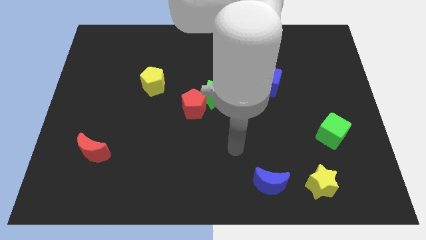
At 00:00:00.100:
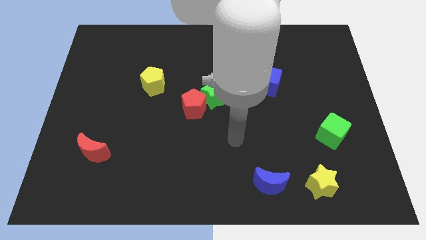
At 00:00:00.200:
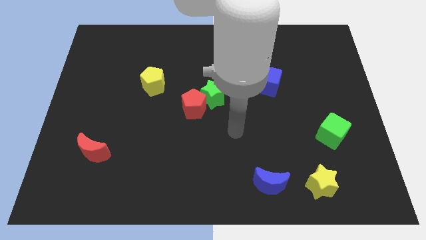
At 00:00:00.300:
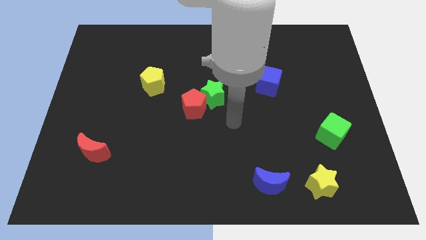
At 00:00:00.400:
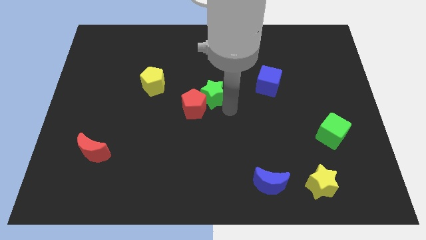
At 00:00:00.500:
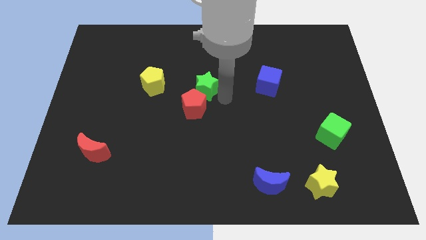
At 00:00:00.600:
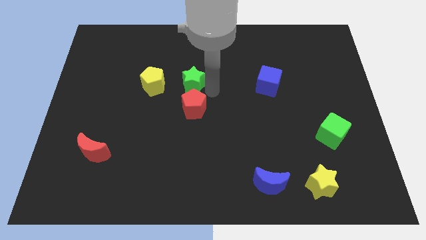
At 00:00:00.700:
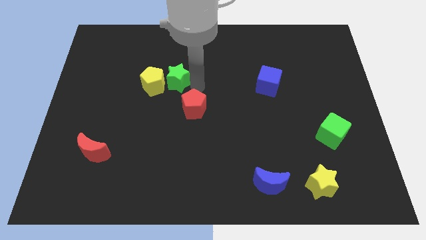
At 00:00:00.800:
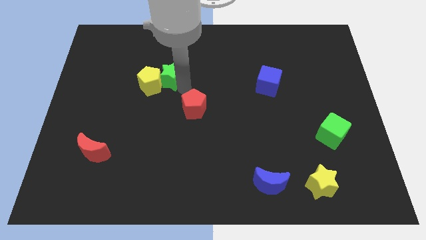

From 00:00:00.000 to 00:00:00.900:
separate the red pentagon from the green star

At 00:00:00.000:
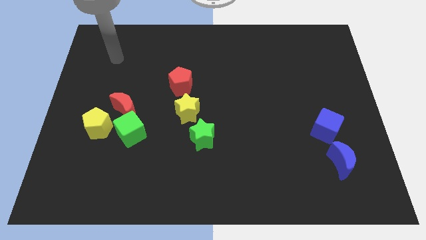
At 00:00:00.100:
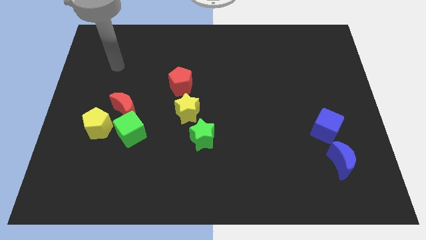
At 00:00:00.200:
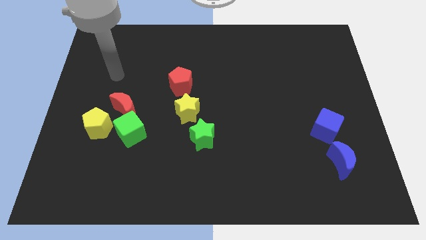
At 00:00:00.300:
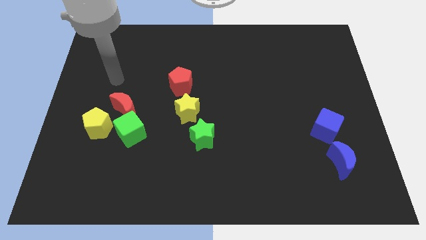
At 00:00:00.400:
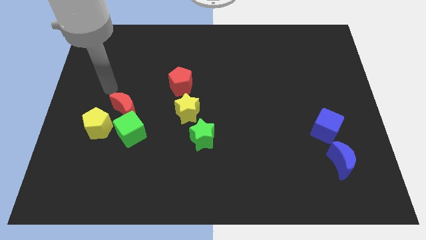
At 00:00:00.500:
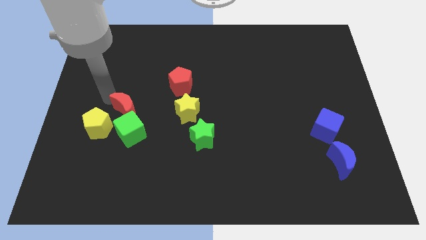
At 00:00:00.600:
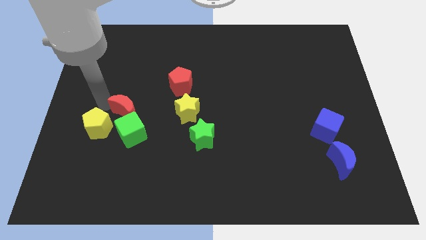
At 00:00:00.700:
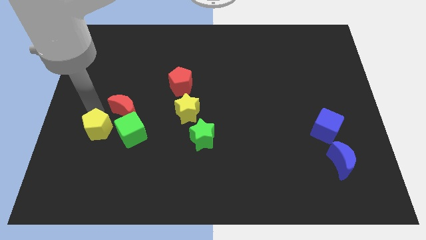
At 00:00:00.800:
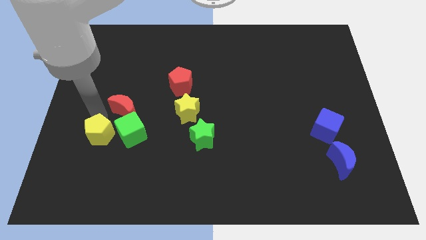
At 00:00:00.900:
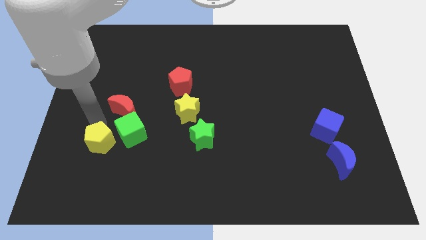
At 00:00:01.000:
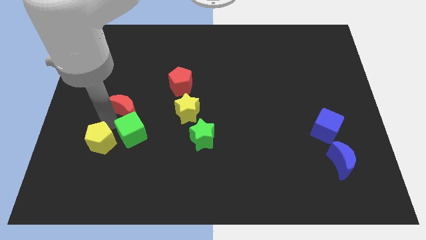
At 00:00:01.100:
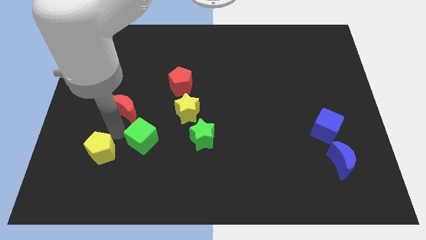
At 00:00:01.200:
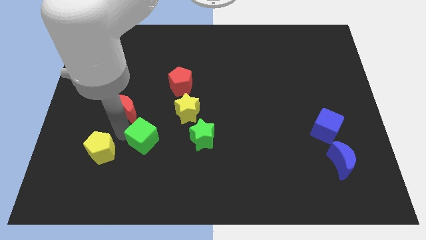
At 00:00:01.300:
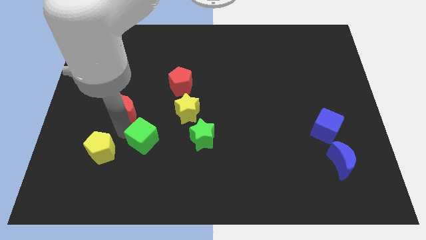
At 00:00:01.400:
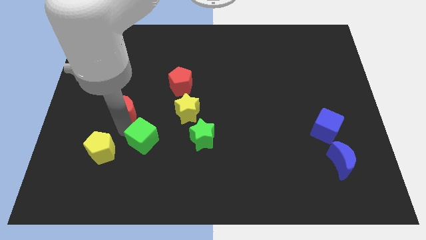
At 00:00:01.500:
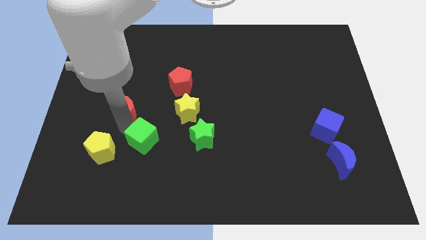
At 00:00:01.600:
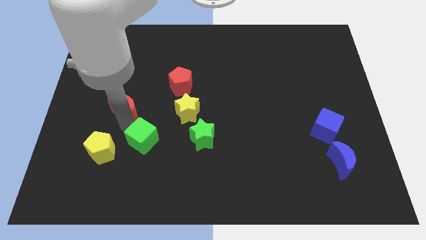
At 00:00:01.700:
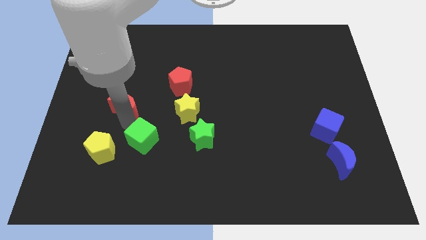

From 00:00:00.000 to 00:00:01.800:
separate the red moon from the green cube and yellow pentagon

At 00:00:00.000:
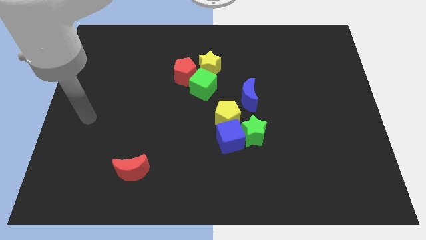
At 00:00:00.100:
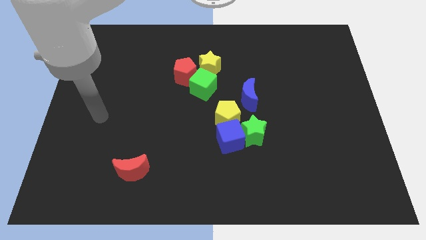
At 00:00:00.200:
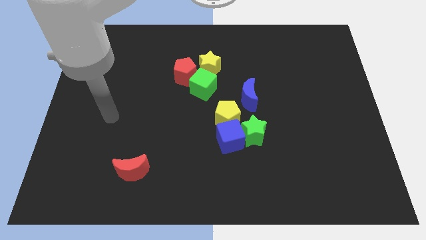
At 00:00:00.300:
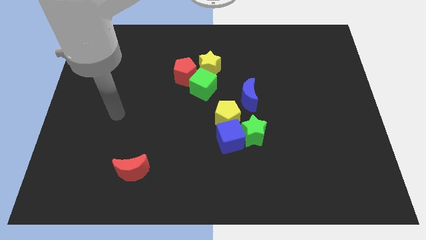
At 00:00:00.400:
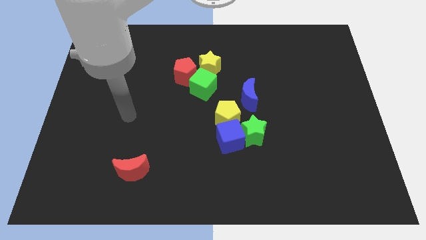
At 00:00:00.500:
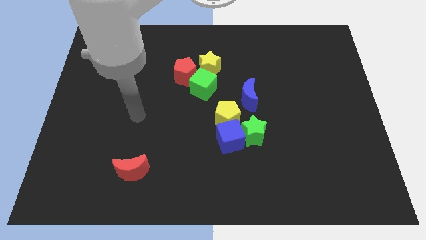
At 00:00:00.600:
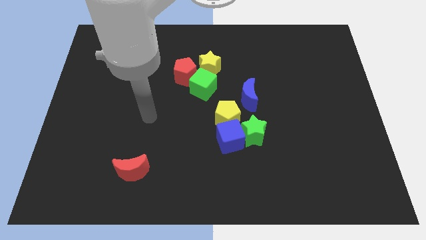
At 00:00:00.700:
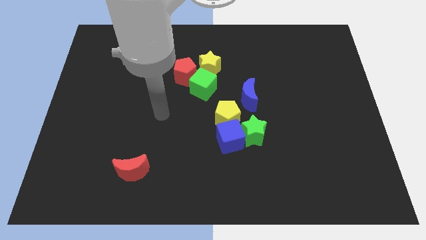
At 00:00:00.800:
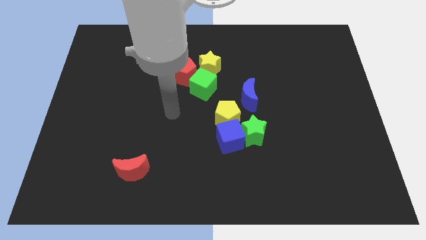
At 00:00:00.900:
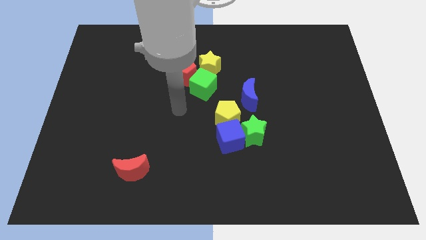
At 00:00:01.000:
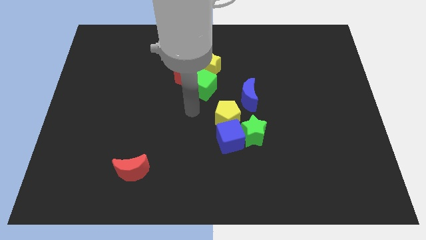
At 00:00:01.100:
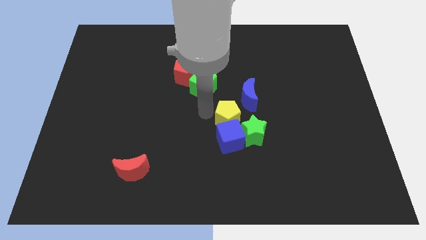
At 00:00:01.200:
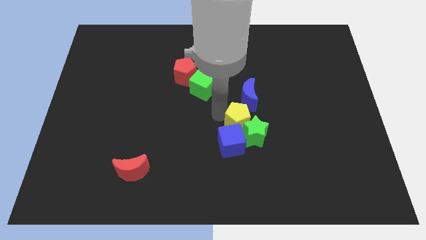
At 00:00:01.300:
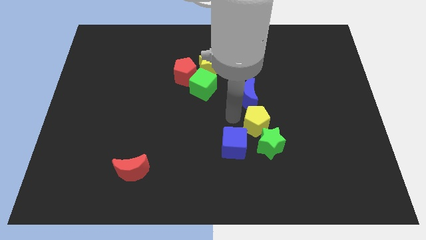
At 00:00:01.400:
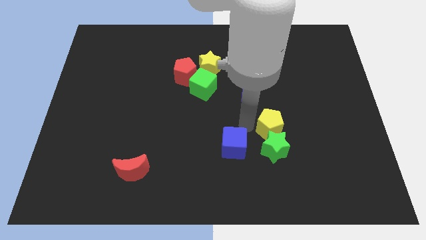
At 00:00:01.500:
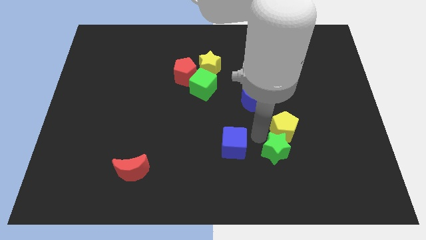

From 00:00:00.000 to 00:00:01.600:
pull the blue cube apart from the green star and yellow pentagon

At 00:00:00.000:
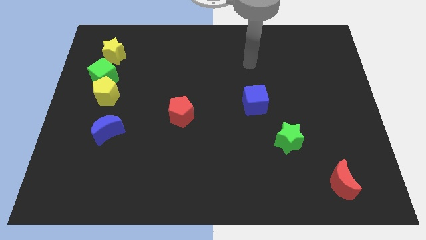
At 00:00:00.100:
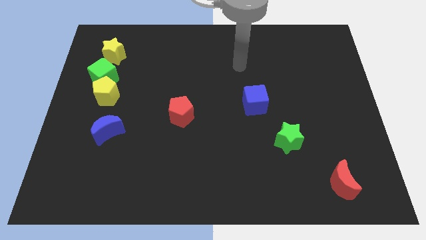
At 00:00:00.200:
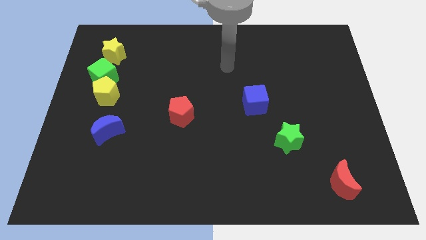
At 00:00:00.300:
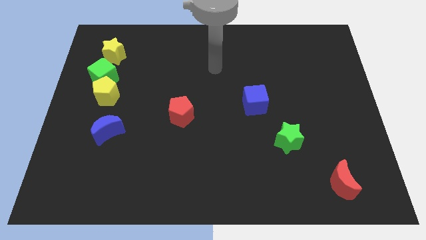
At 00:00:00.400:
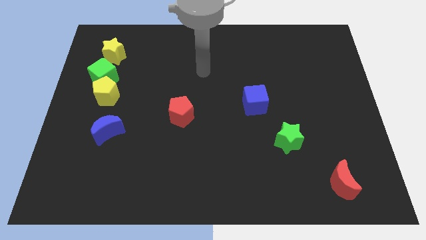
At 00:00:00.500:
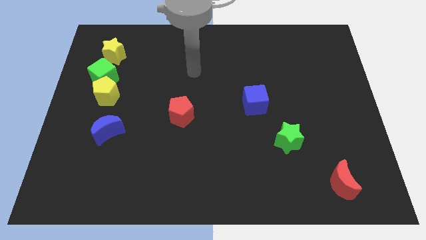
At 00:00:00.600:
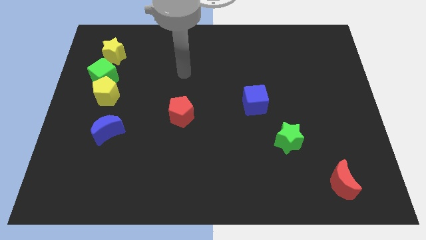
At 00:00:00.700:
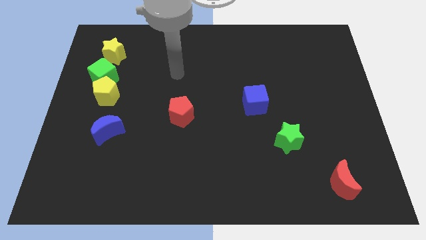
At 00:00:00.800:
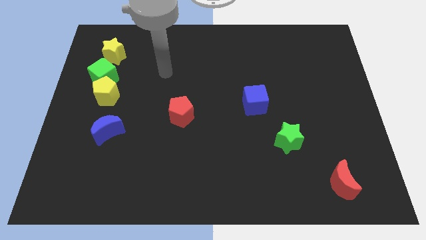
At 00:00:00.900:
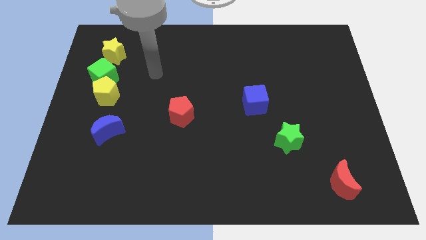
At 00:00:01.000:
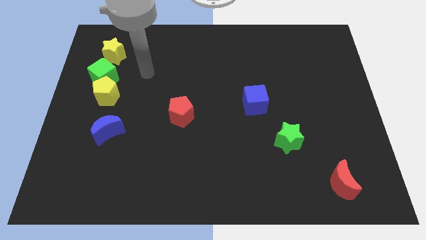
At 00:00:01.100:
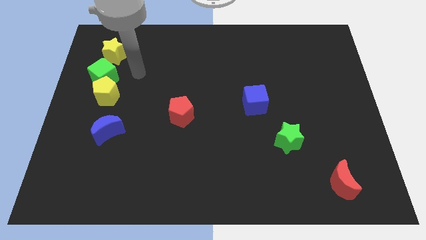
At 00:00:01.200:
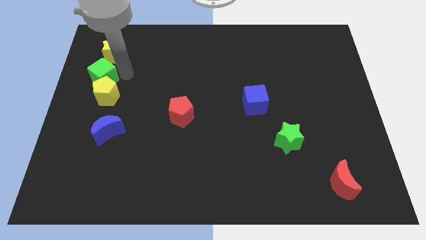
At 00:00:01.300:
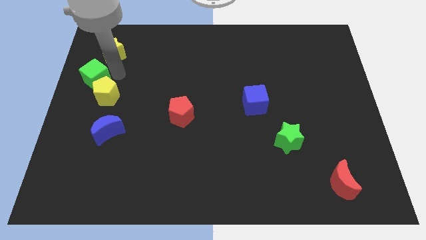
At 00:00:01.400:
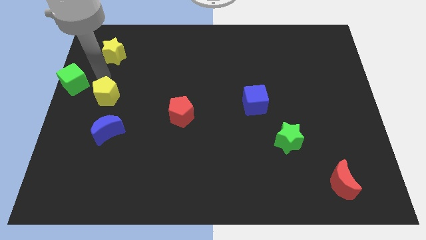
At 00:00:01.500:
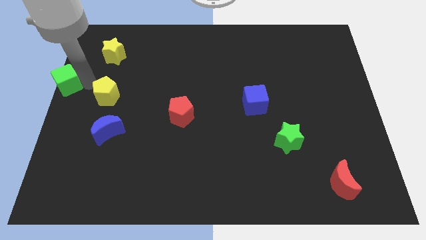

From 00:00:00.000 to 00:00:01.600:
separate the yellow pentagon from the green cube

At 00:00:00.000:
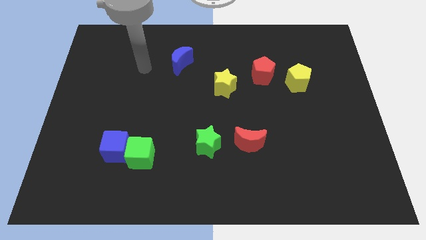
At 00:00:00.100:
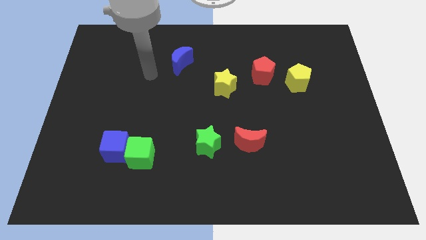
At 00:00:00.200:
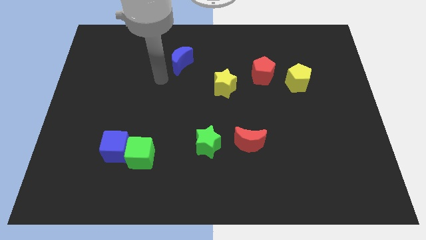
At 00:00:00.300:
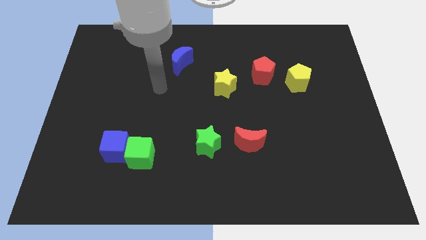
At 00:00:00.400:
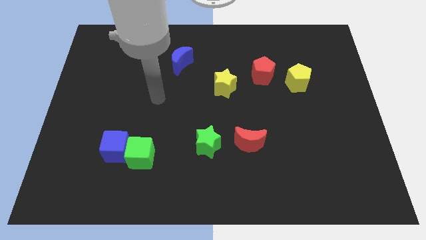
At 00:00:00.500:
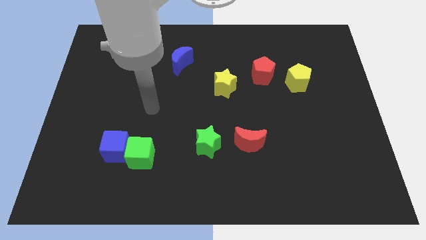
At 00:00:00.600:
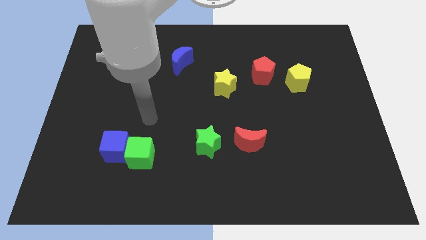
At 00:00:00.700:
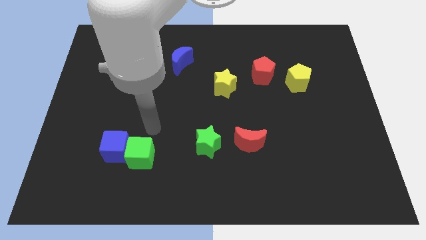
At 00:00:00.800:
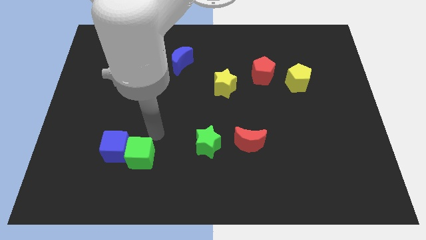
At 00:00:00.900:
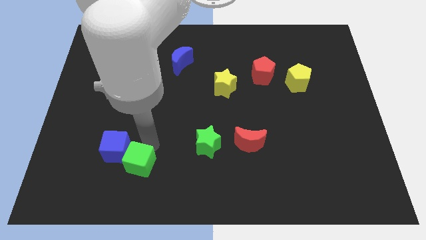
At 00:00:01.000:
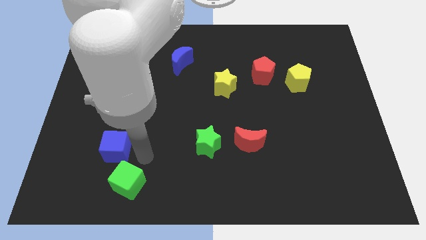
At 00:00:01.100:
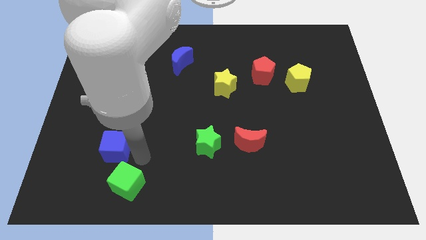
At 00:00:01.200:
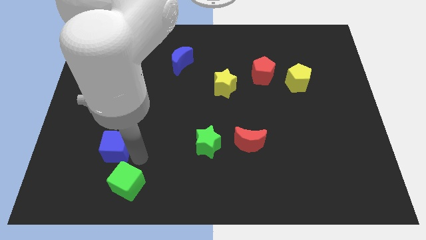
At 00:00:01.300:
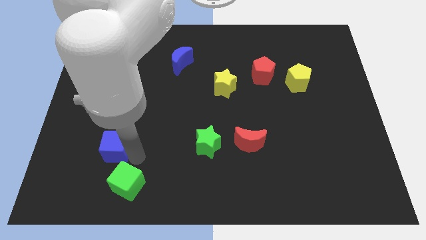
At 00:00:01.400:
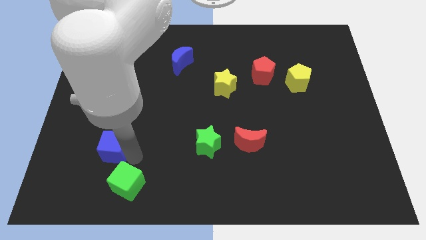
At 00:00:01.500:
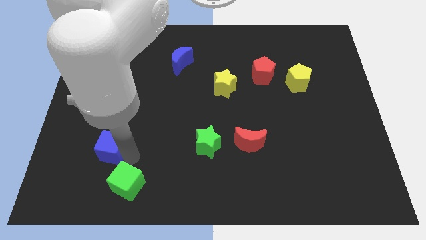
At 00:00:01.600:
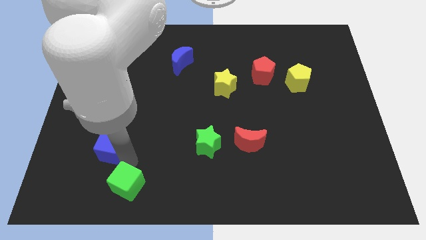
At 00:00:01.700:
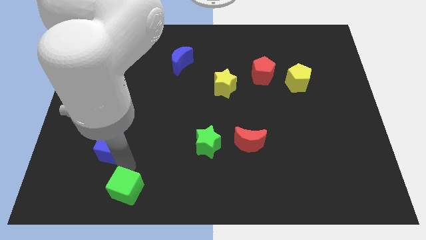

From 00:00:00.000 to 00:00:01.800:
pull the blue cube apart from the green cube

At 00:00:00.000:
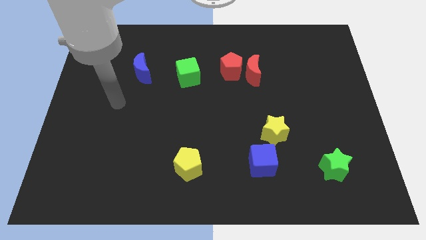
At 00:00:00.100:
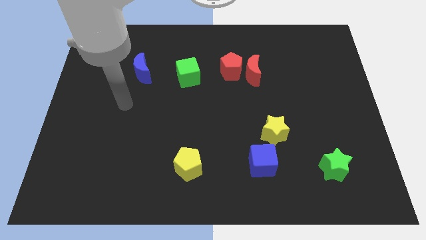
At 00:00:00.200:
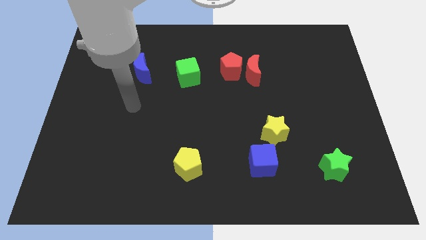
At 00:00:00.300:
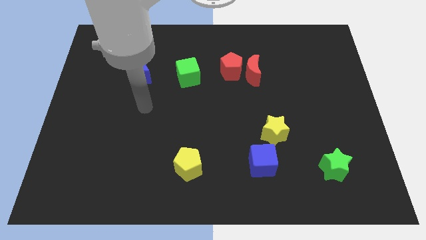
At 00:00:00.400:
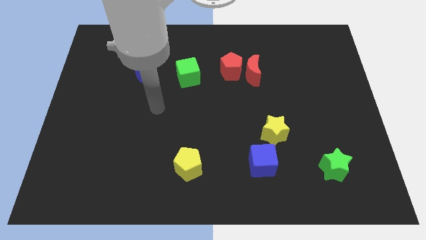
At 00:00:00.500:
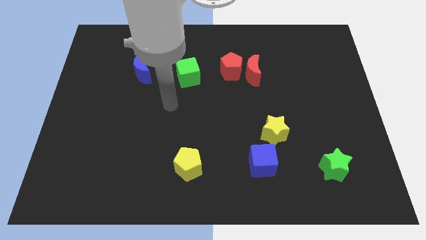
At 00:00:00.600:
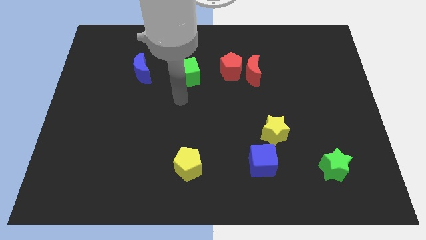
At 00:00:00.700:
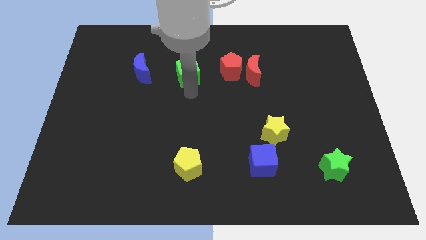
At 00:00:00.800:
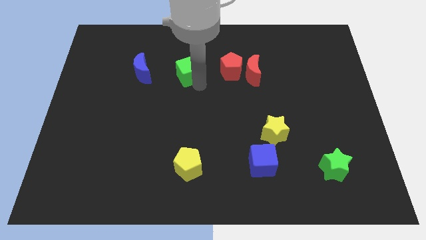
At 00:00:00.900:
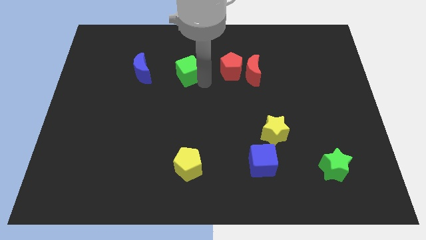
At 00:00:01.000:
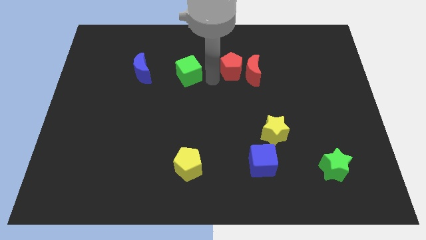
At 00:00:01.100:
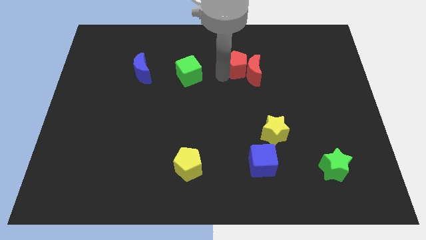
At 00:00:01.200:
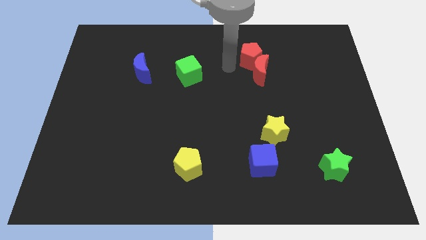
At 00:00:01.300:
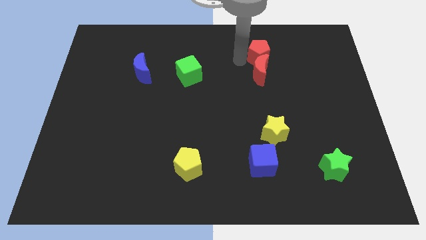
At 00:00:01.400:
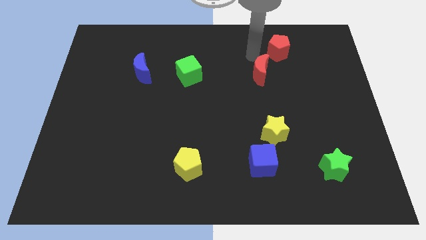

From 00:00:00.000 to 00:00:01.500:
pull the red moon apart from the red pentagon

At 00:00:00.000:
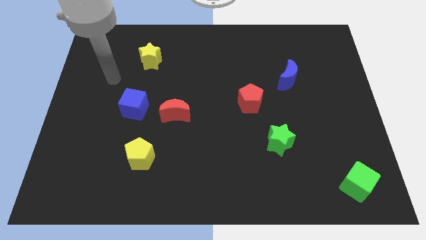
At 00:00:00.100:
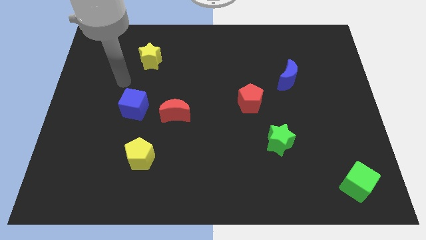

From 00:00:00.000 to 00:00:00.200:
separate the red moon from the blue cube
